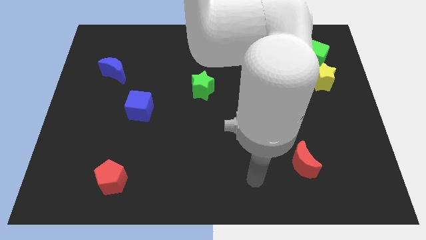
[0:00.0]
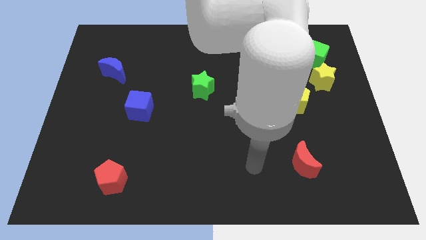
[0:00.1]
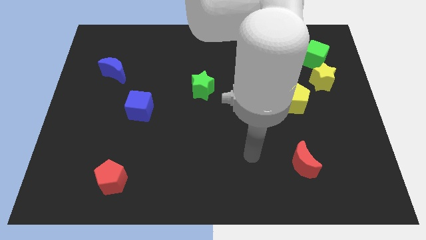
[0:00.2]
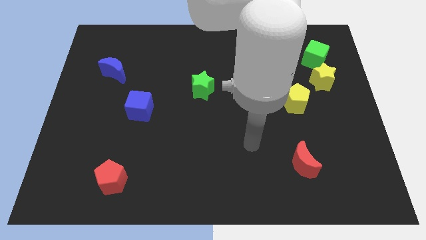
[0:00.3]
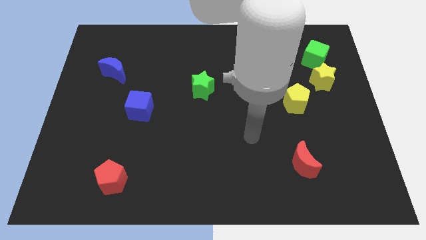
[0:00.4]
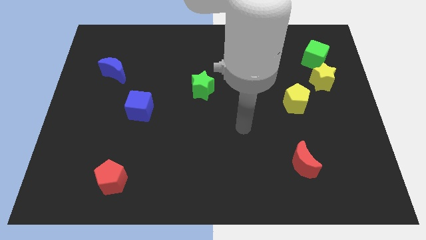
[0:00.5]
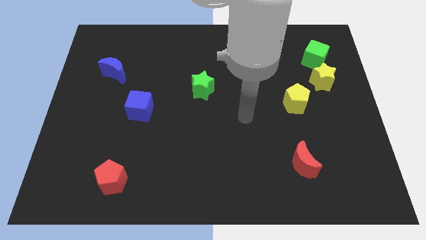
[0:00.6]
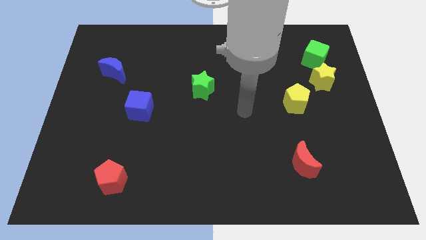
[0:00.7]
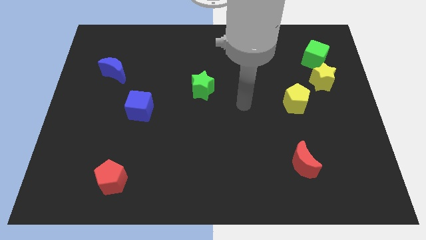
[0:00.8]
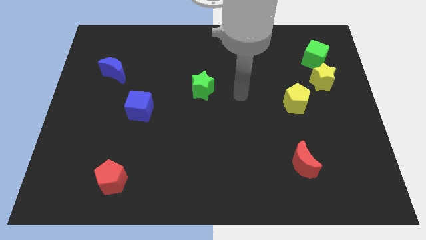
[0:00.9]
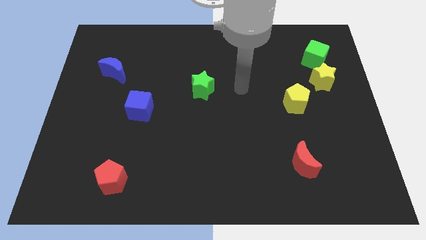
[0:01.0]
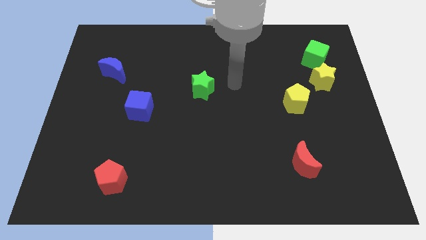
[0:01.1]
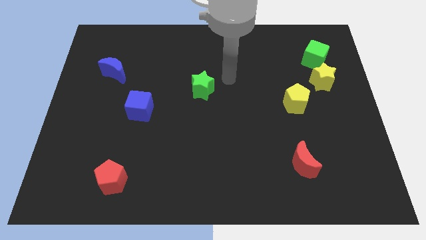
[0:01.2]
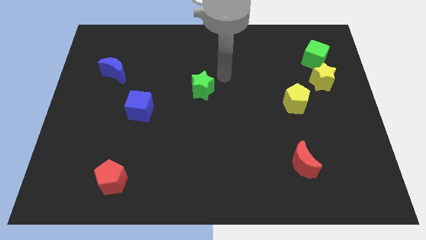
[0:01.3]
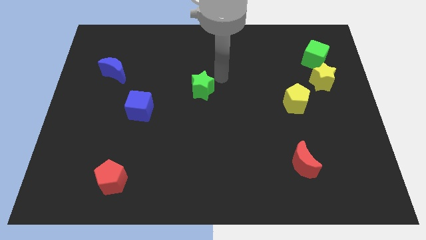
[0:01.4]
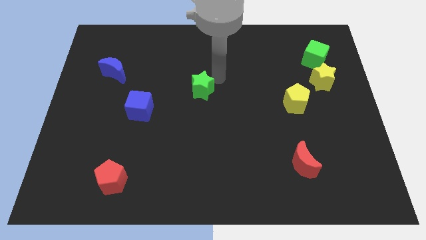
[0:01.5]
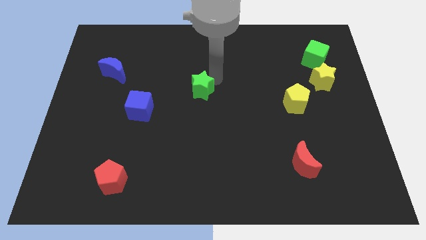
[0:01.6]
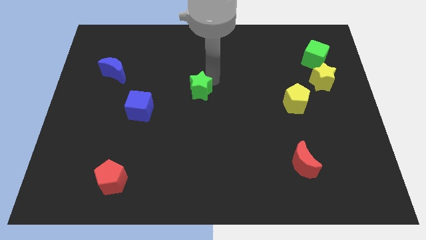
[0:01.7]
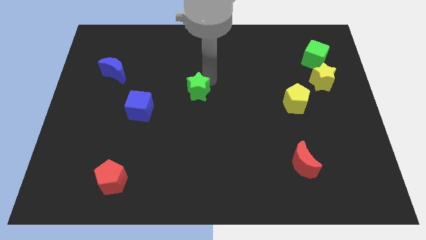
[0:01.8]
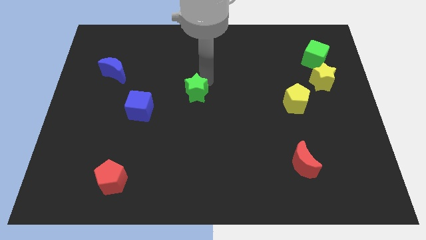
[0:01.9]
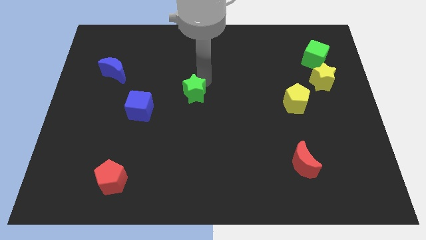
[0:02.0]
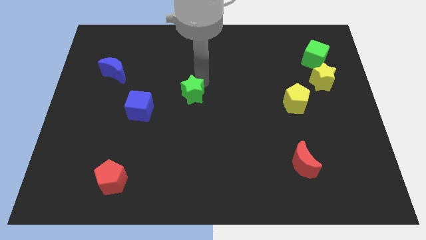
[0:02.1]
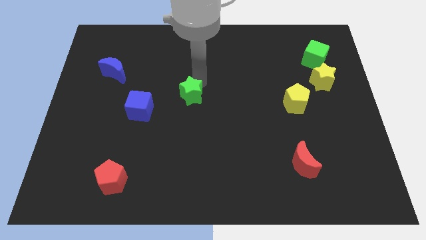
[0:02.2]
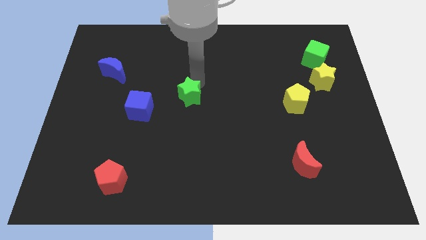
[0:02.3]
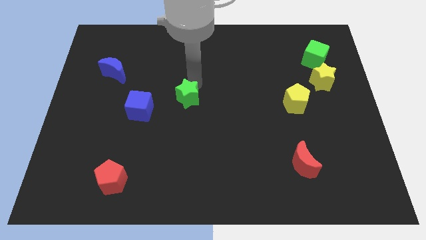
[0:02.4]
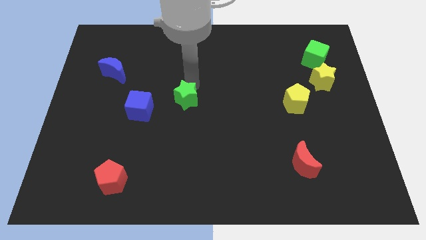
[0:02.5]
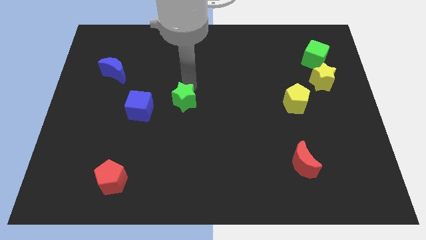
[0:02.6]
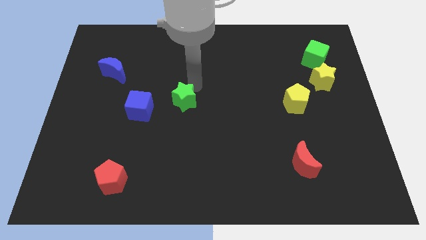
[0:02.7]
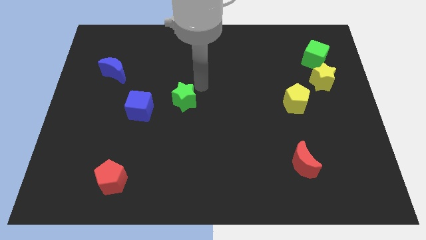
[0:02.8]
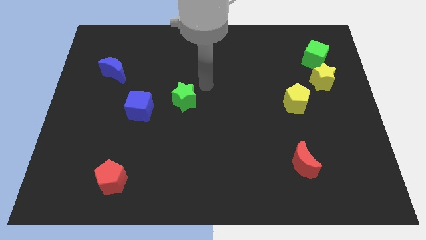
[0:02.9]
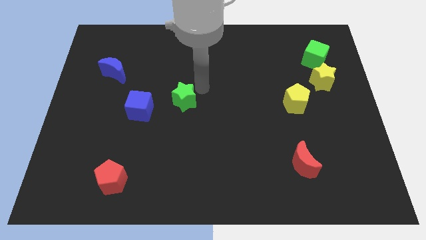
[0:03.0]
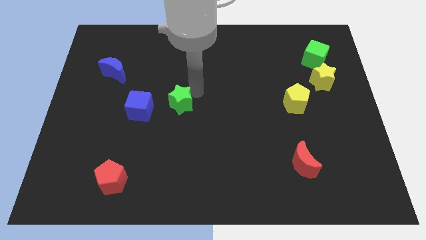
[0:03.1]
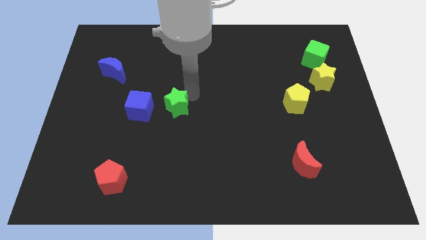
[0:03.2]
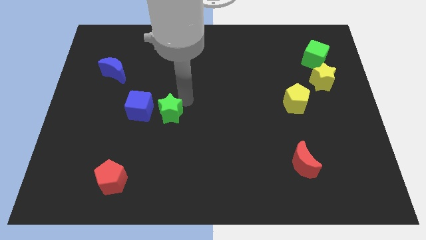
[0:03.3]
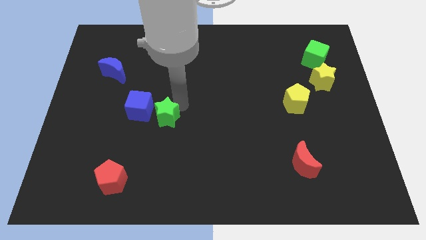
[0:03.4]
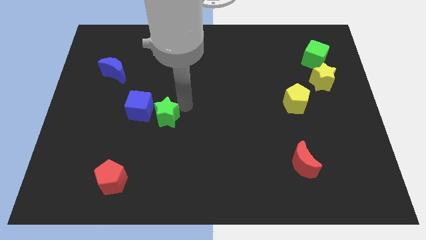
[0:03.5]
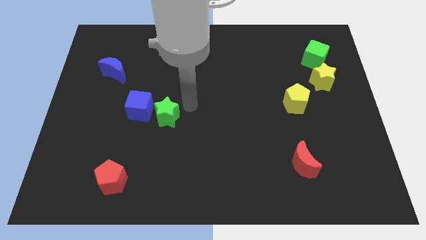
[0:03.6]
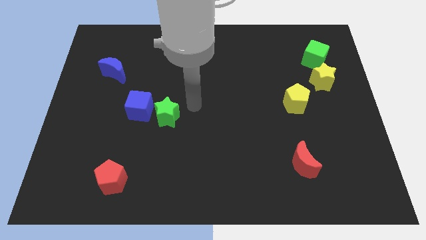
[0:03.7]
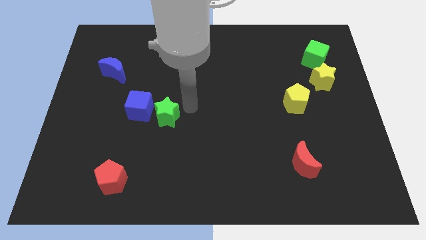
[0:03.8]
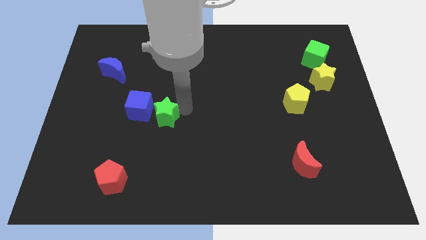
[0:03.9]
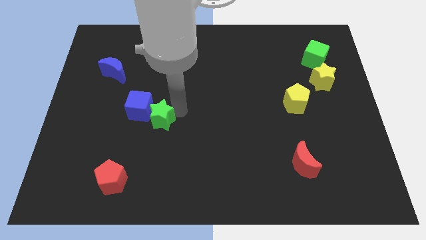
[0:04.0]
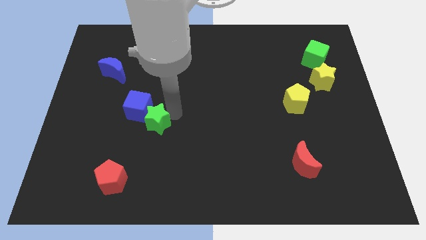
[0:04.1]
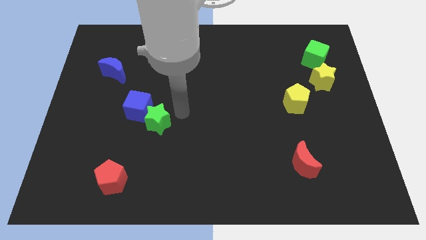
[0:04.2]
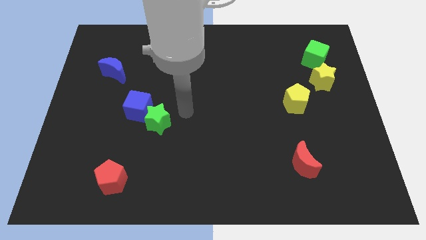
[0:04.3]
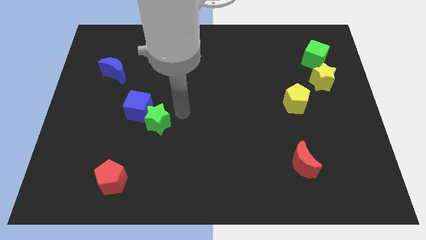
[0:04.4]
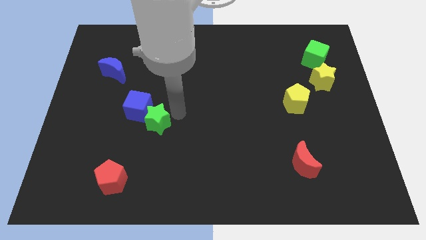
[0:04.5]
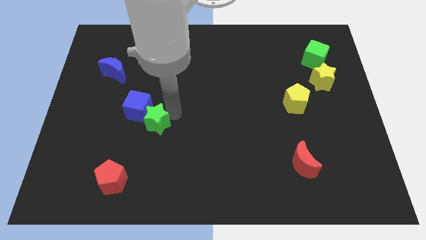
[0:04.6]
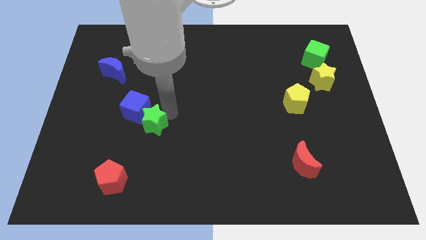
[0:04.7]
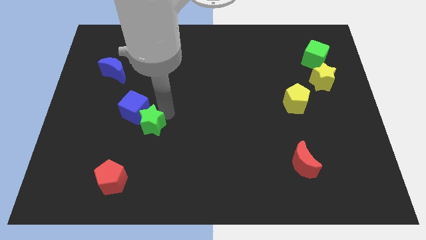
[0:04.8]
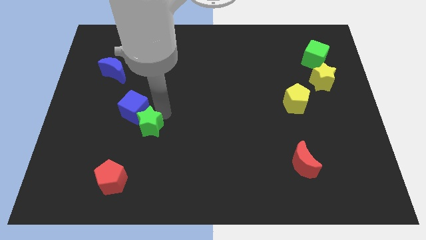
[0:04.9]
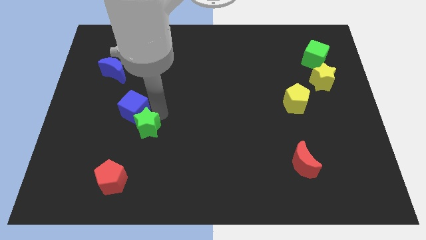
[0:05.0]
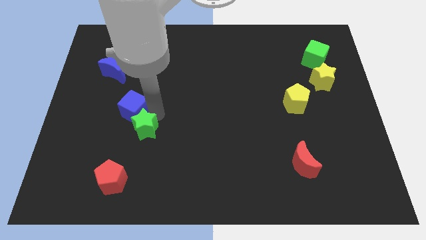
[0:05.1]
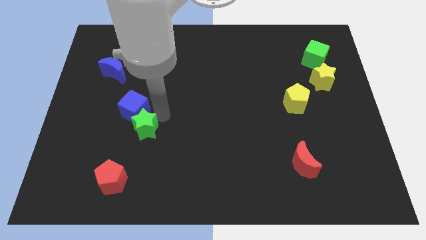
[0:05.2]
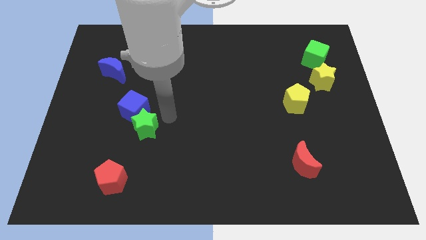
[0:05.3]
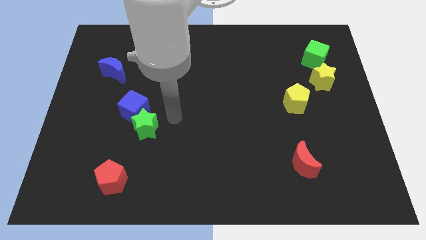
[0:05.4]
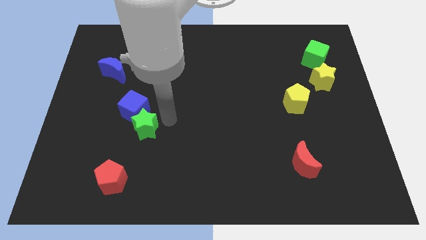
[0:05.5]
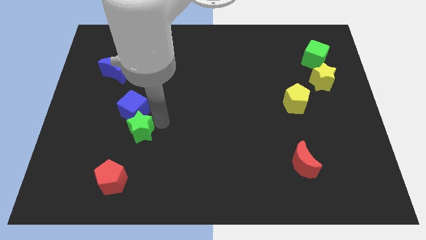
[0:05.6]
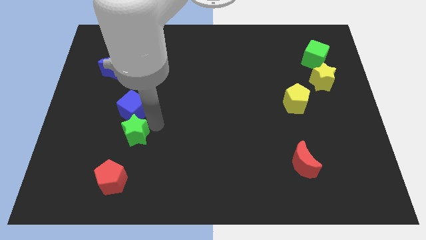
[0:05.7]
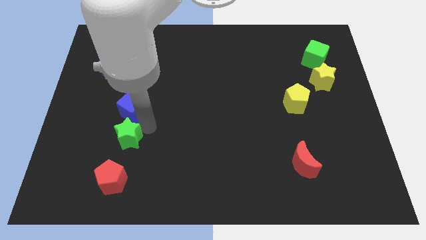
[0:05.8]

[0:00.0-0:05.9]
slide the green star down and then to the left

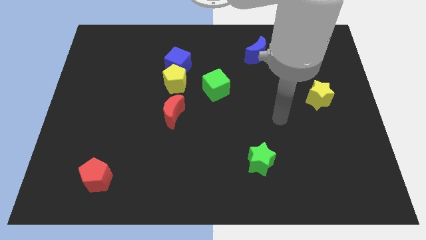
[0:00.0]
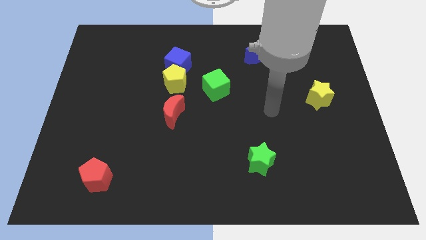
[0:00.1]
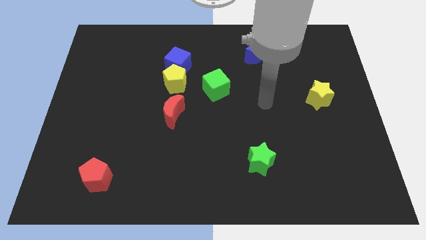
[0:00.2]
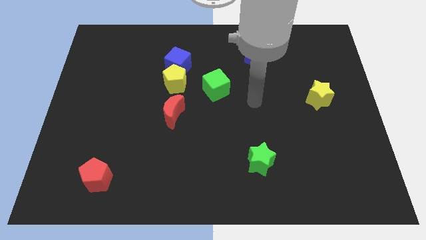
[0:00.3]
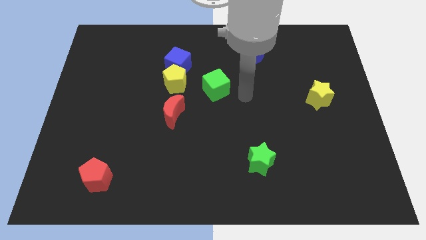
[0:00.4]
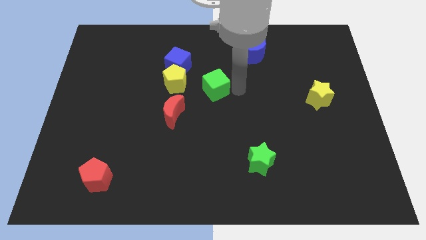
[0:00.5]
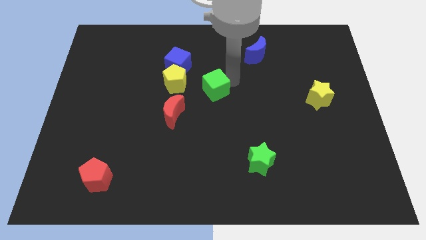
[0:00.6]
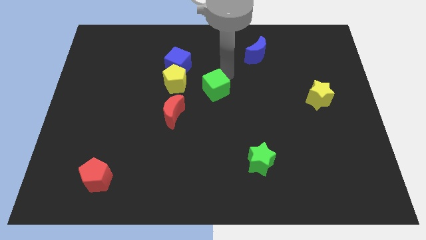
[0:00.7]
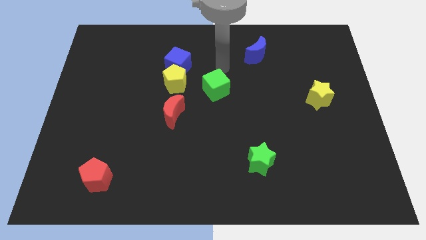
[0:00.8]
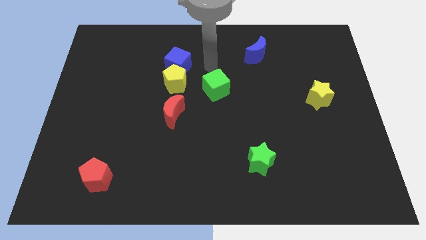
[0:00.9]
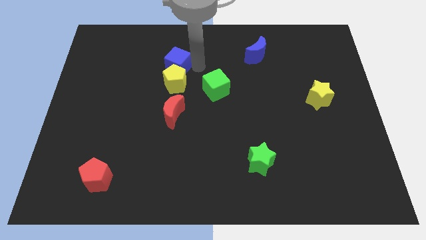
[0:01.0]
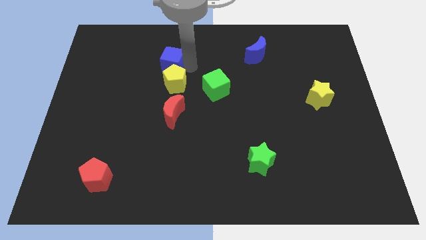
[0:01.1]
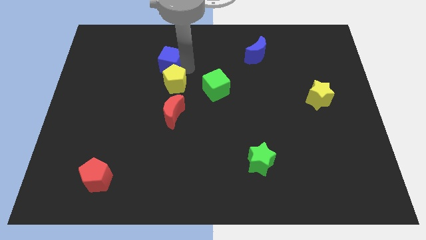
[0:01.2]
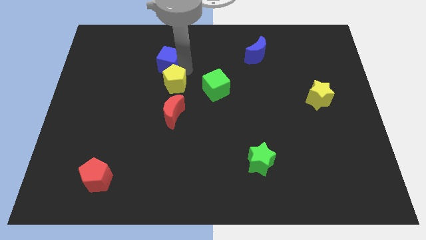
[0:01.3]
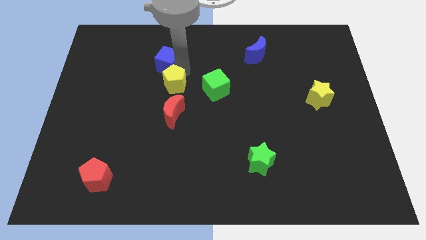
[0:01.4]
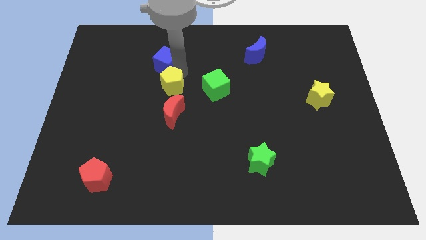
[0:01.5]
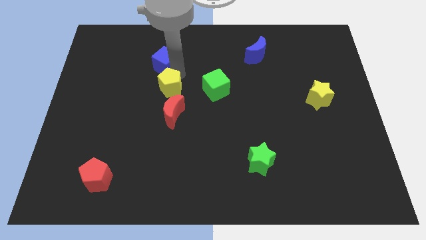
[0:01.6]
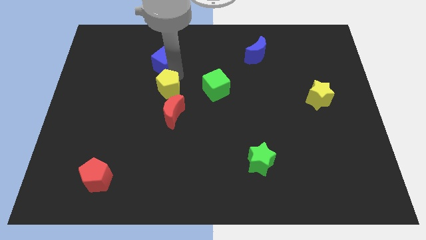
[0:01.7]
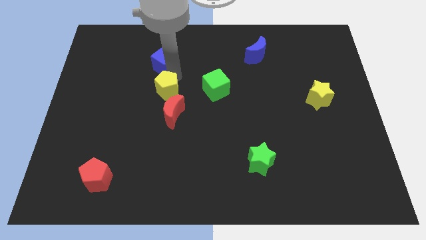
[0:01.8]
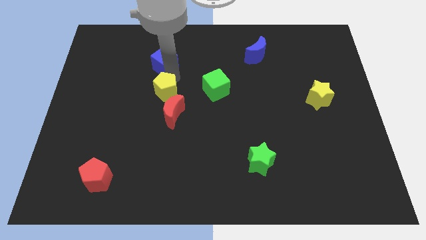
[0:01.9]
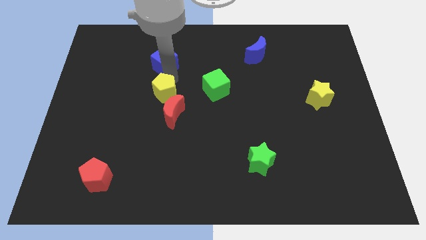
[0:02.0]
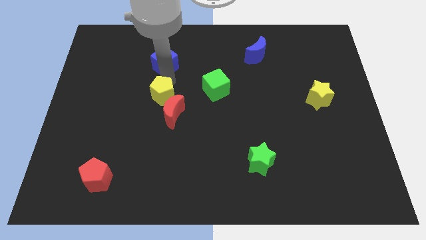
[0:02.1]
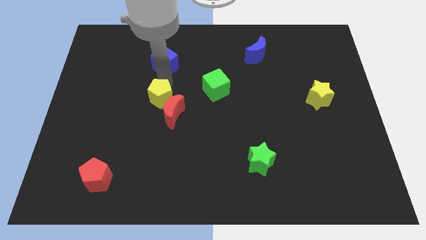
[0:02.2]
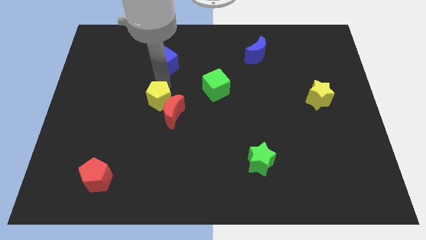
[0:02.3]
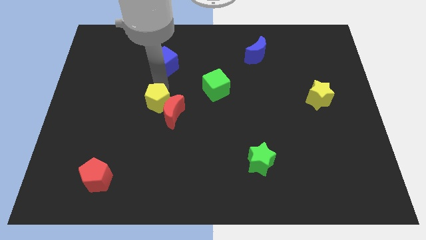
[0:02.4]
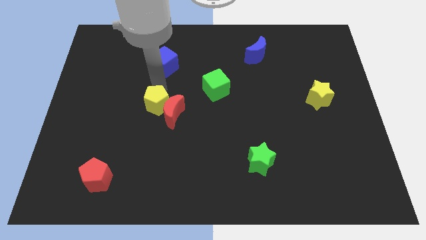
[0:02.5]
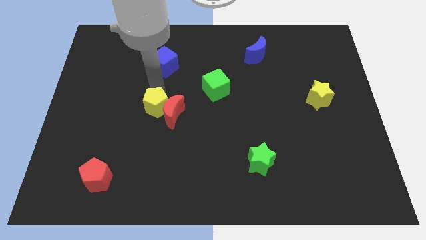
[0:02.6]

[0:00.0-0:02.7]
slightly slide the yellow pentagon downwards
